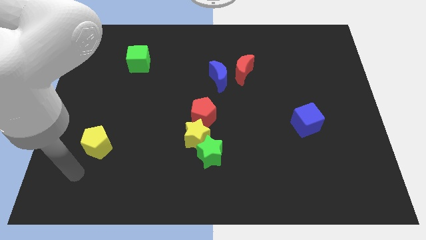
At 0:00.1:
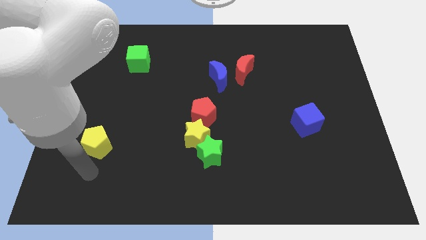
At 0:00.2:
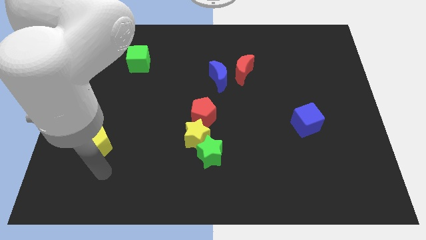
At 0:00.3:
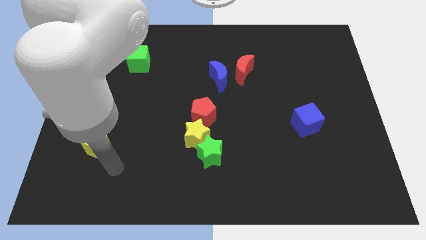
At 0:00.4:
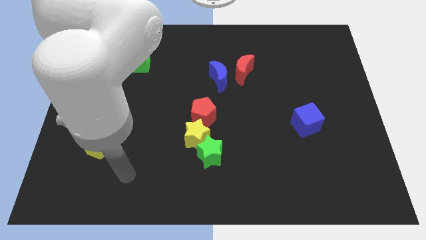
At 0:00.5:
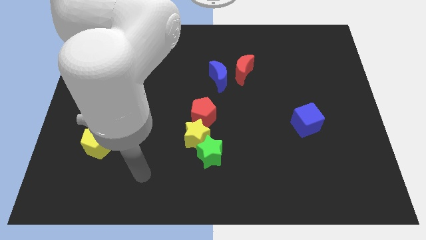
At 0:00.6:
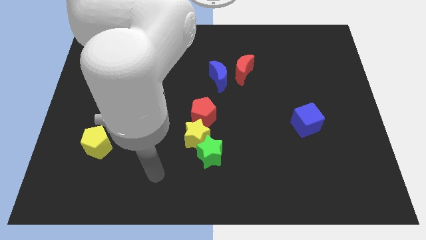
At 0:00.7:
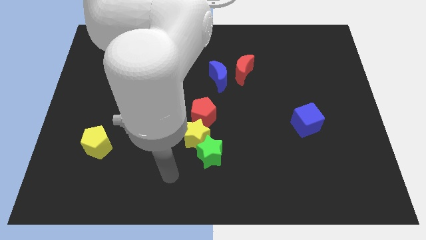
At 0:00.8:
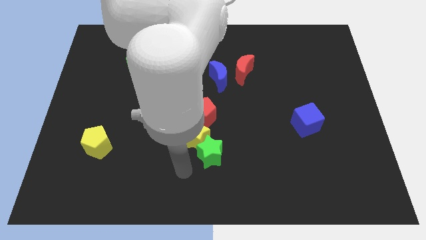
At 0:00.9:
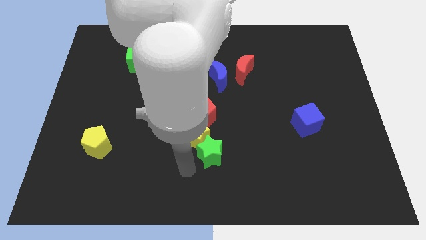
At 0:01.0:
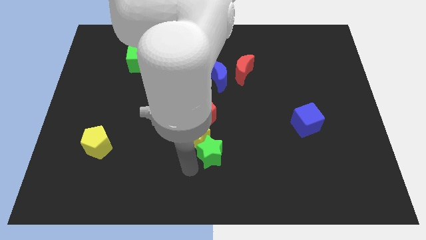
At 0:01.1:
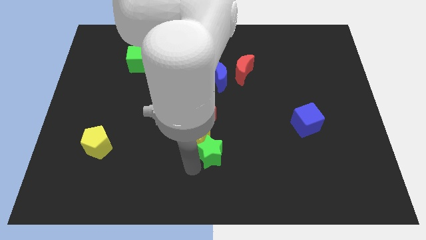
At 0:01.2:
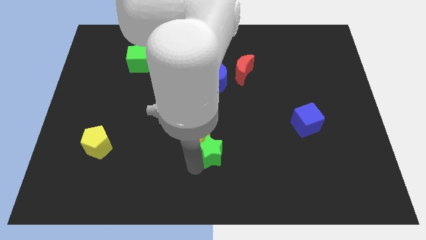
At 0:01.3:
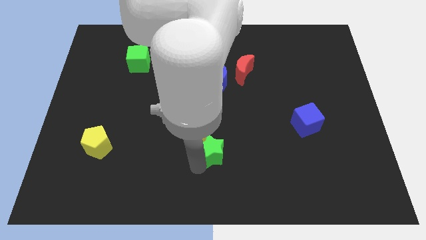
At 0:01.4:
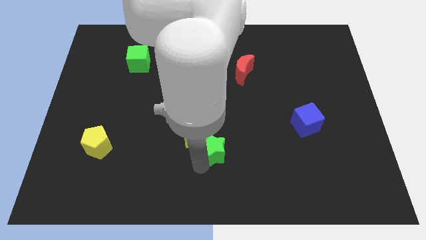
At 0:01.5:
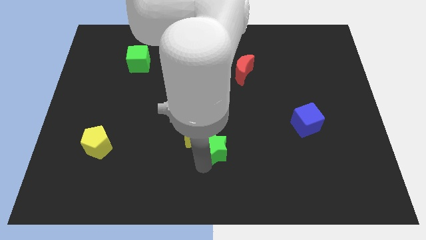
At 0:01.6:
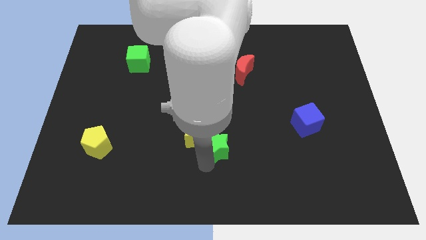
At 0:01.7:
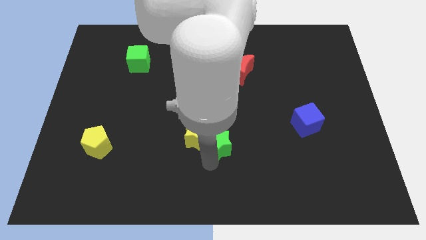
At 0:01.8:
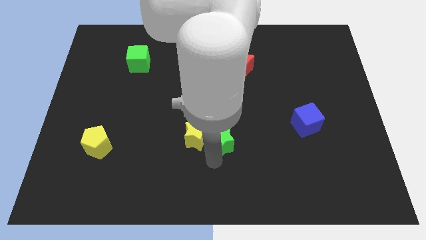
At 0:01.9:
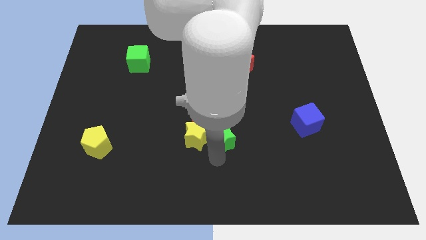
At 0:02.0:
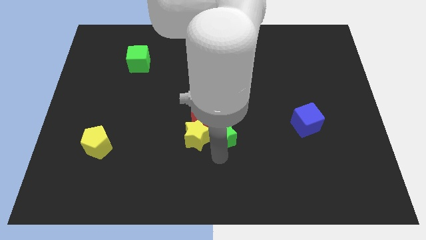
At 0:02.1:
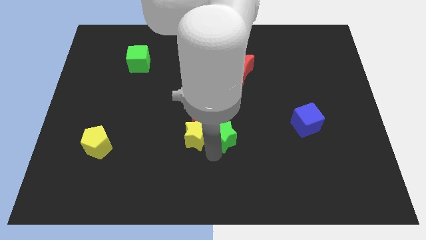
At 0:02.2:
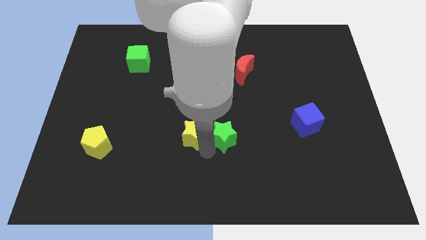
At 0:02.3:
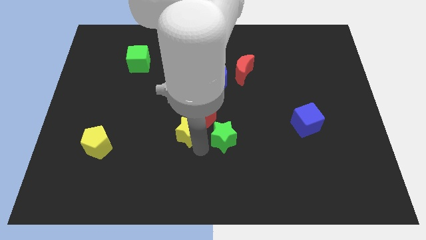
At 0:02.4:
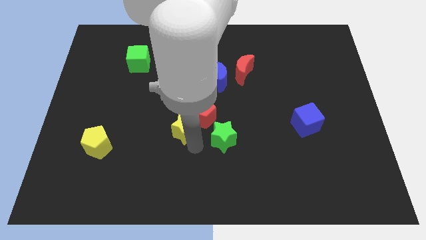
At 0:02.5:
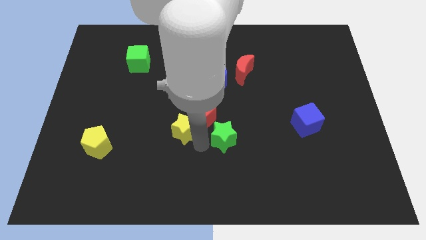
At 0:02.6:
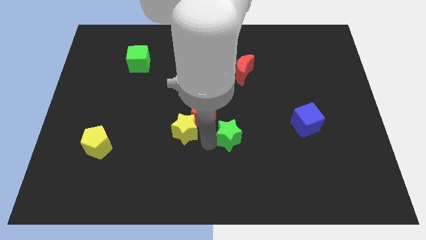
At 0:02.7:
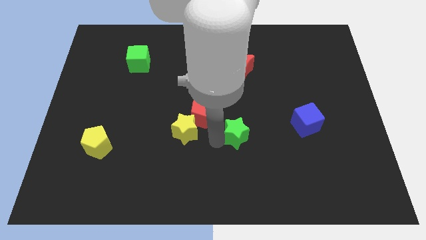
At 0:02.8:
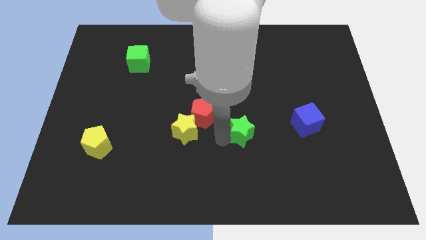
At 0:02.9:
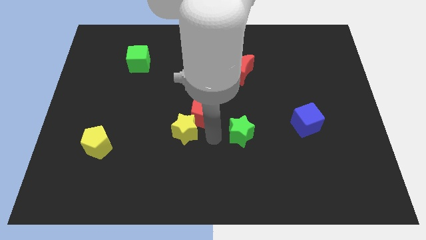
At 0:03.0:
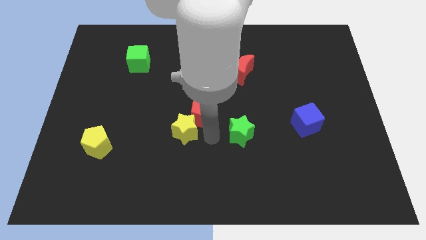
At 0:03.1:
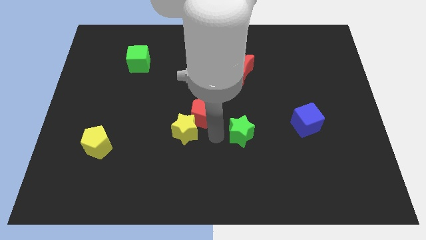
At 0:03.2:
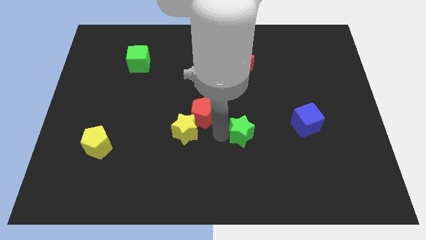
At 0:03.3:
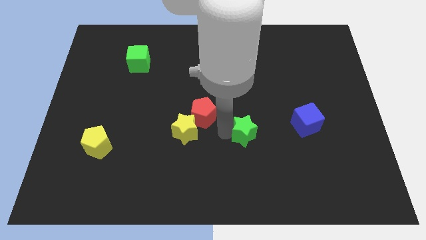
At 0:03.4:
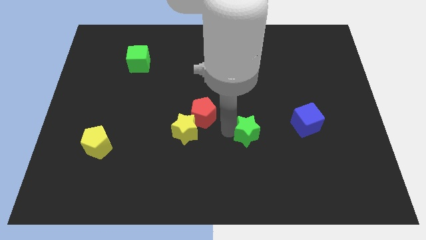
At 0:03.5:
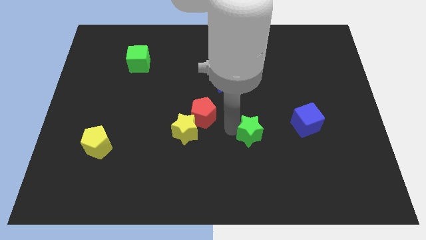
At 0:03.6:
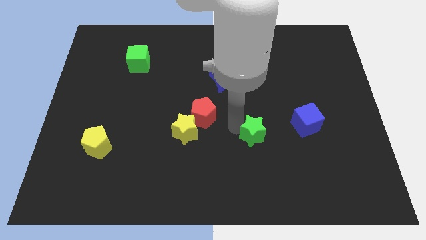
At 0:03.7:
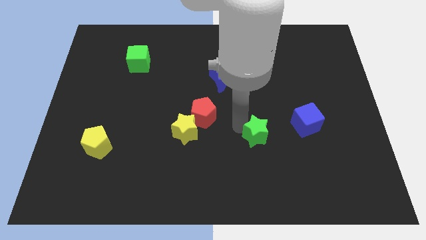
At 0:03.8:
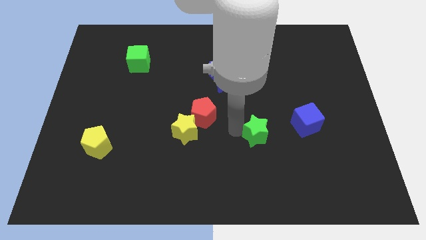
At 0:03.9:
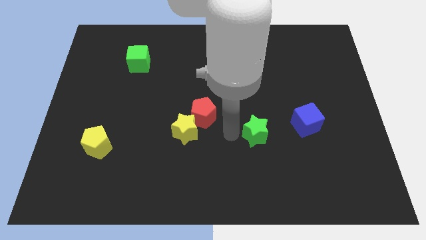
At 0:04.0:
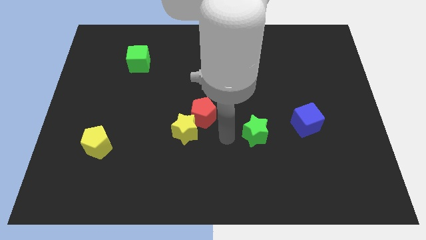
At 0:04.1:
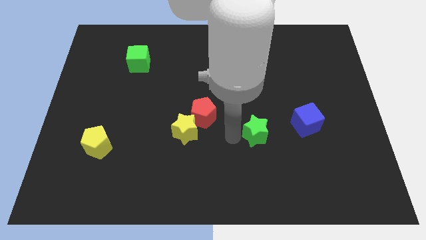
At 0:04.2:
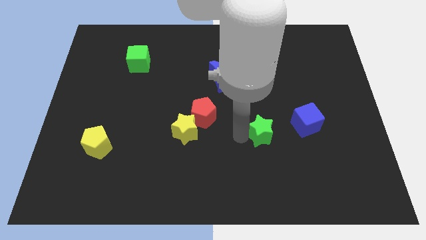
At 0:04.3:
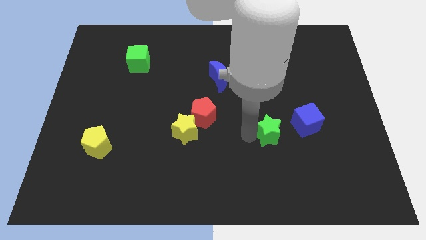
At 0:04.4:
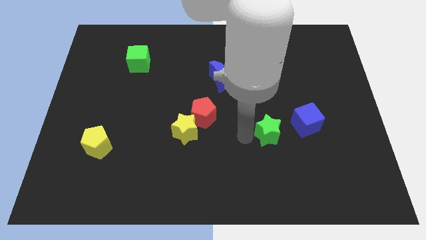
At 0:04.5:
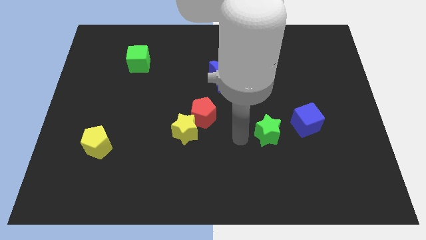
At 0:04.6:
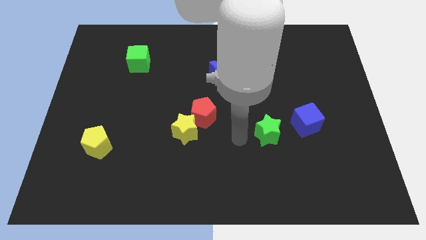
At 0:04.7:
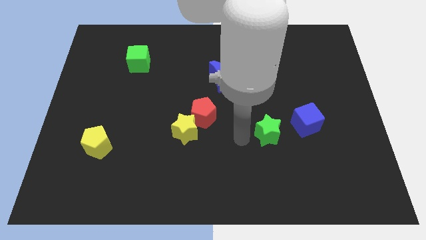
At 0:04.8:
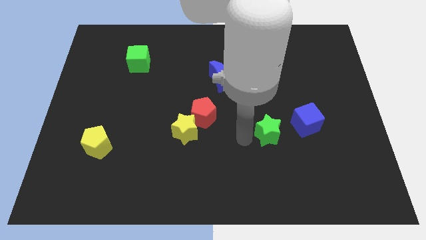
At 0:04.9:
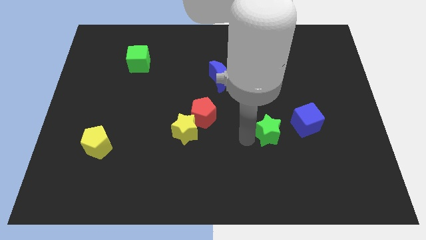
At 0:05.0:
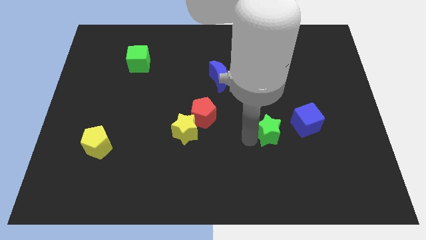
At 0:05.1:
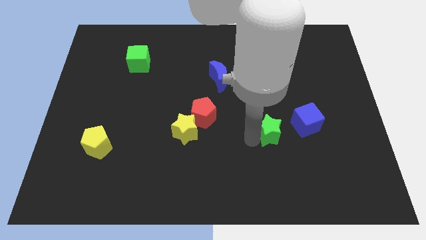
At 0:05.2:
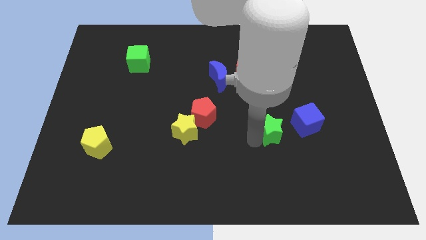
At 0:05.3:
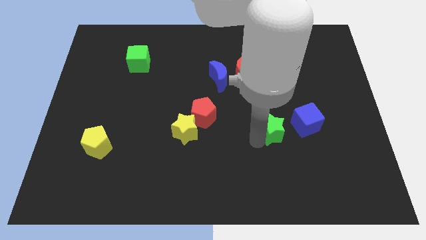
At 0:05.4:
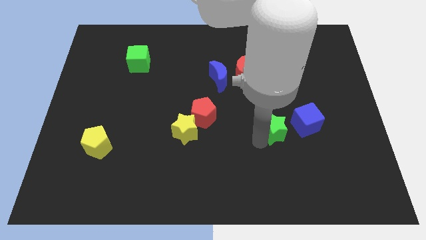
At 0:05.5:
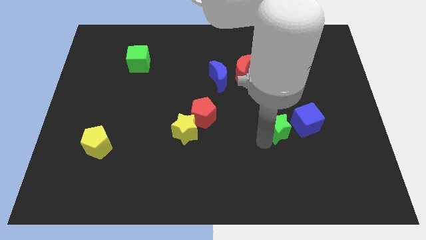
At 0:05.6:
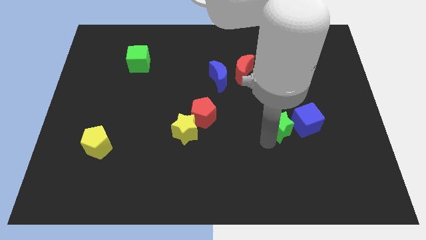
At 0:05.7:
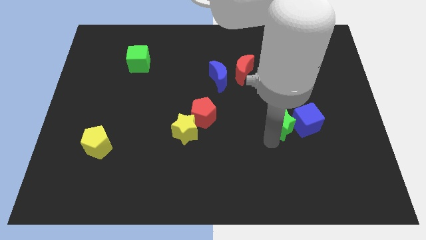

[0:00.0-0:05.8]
move the green star next to the blue cube

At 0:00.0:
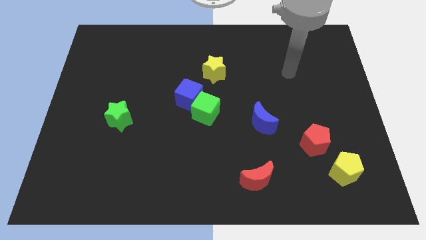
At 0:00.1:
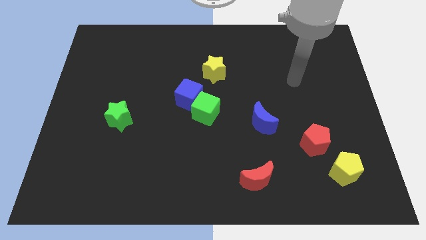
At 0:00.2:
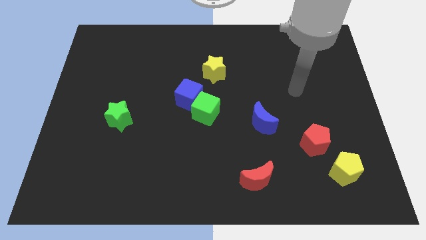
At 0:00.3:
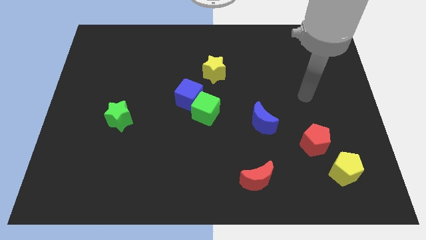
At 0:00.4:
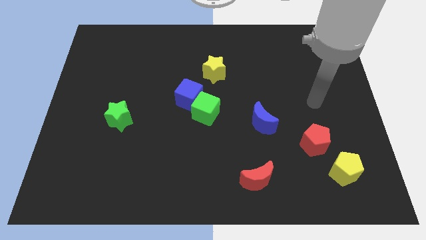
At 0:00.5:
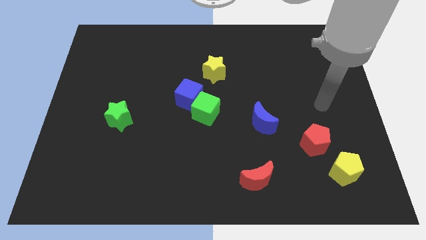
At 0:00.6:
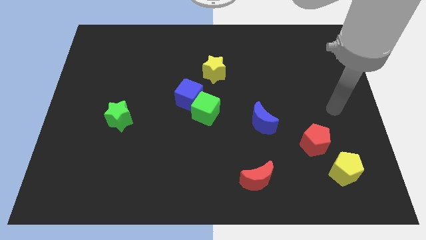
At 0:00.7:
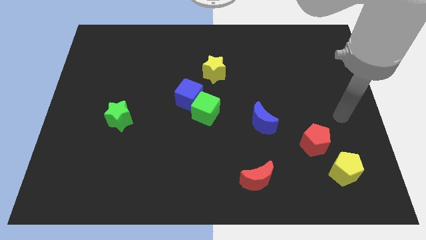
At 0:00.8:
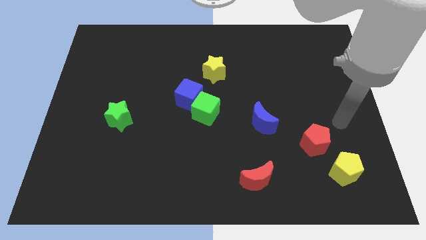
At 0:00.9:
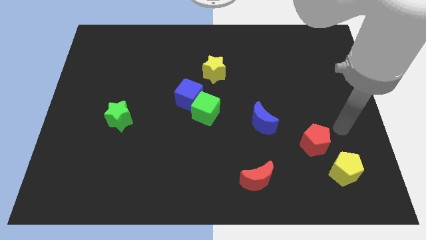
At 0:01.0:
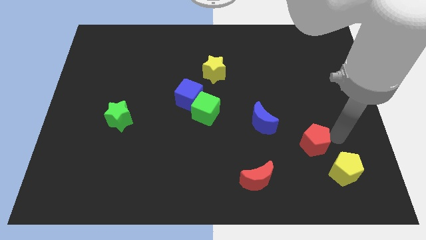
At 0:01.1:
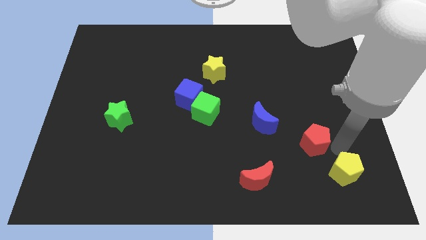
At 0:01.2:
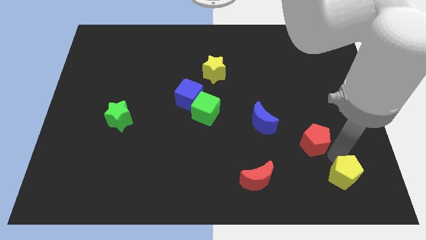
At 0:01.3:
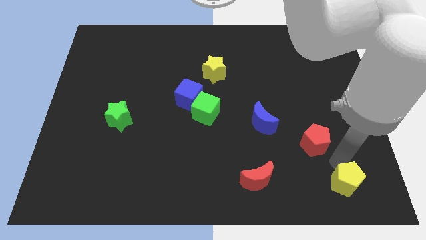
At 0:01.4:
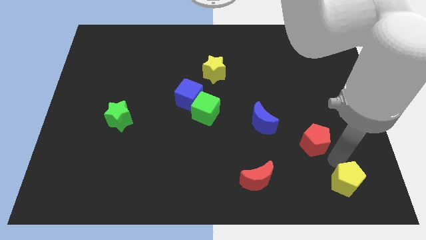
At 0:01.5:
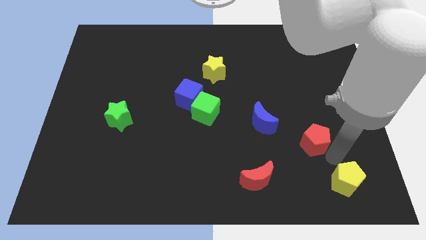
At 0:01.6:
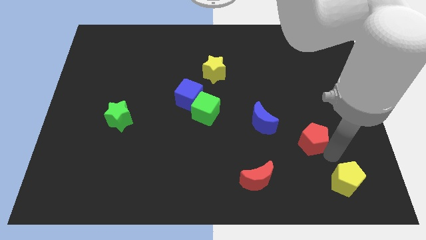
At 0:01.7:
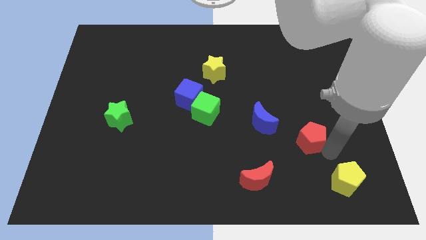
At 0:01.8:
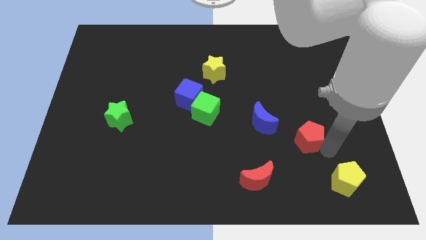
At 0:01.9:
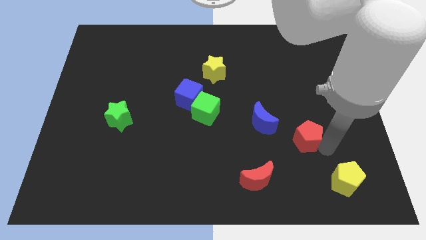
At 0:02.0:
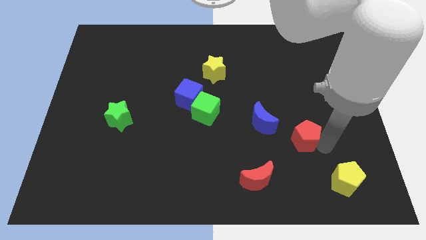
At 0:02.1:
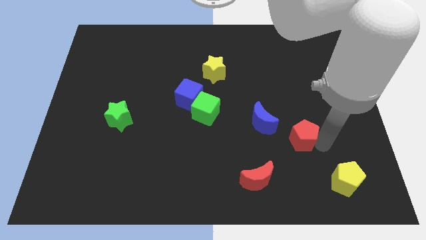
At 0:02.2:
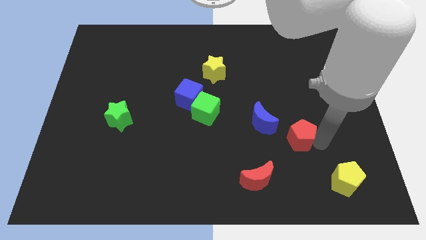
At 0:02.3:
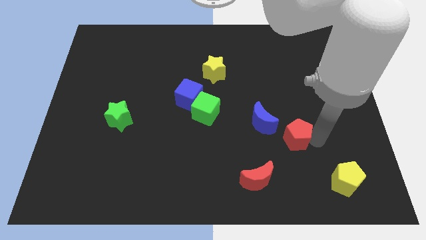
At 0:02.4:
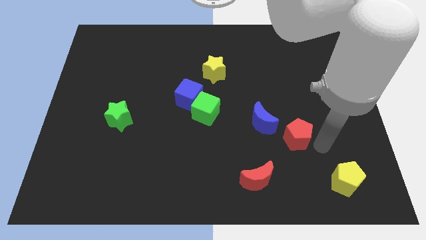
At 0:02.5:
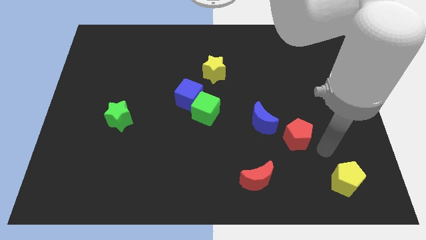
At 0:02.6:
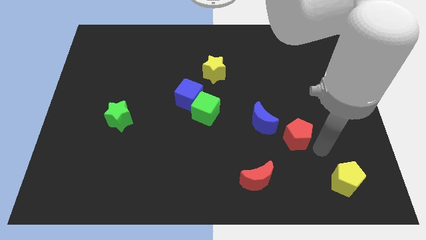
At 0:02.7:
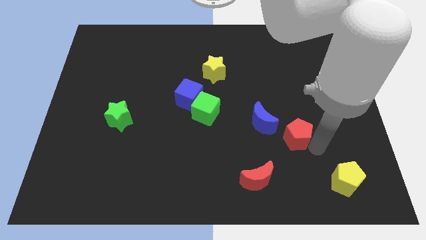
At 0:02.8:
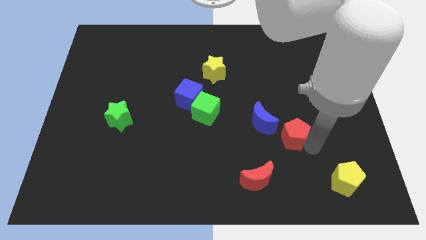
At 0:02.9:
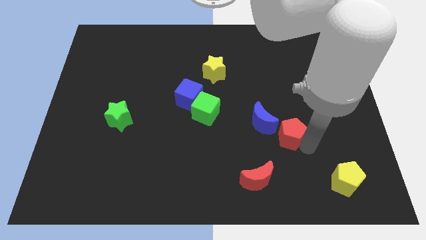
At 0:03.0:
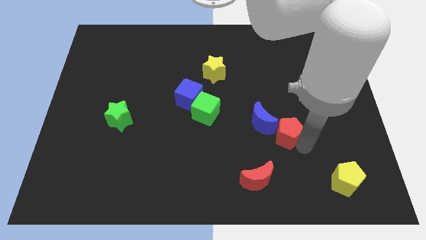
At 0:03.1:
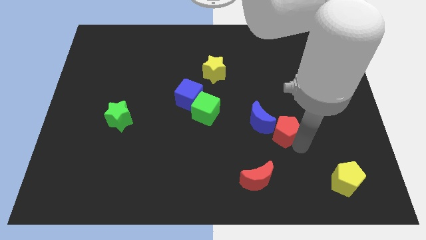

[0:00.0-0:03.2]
push the red pentagon close to the blue moon
